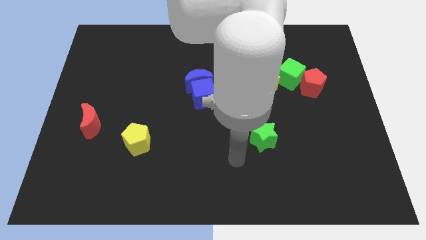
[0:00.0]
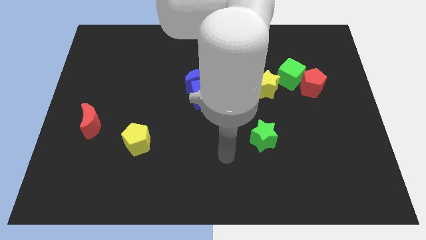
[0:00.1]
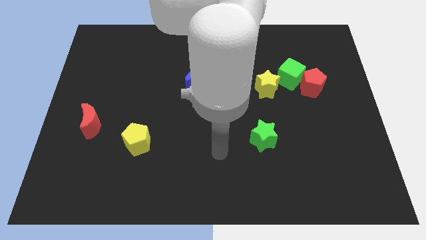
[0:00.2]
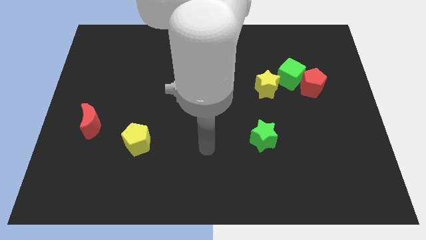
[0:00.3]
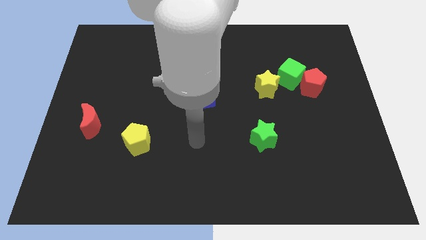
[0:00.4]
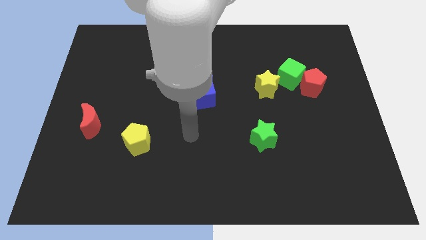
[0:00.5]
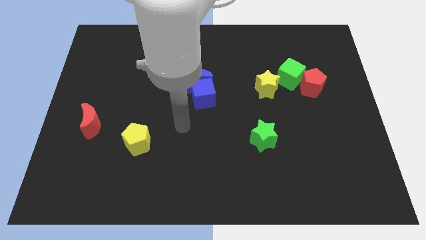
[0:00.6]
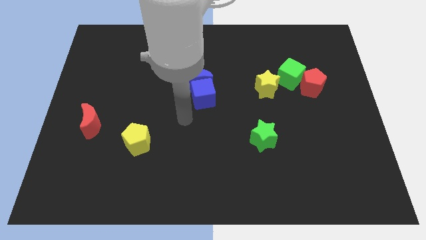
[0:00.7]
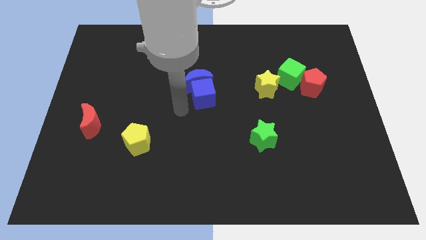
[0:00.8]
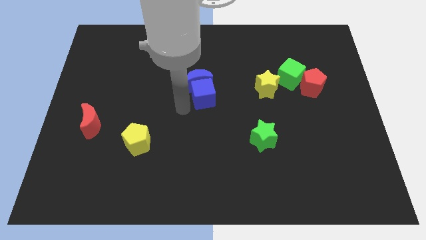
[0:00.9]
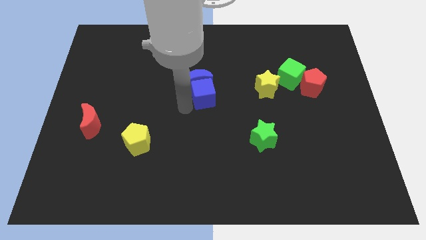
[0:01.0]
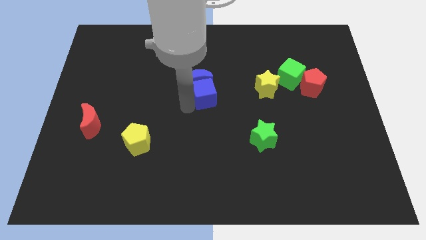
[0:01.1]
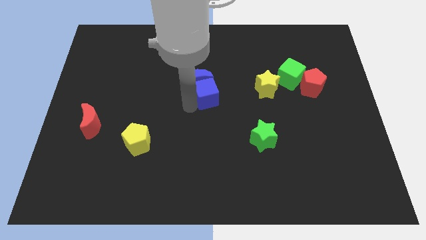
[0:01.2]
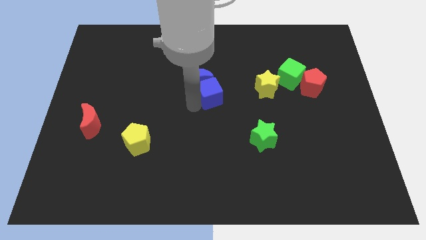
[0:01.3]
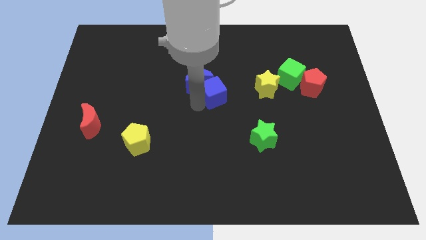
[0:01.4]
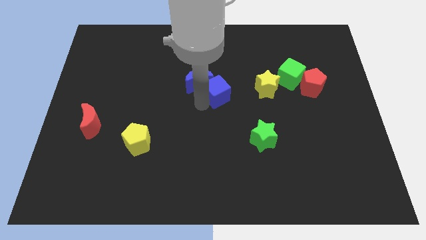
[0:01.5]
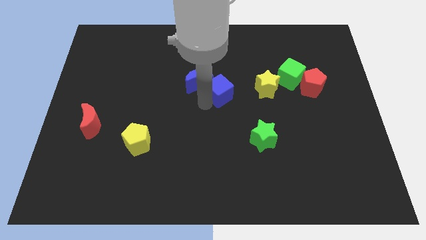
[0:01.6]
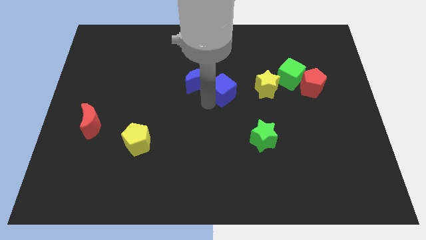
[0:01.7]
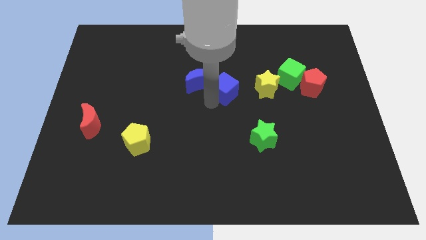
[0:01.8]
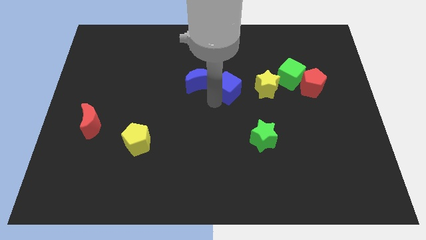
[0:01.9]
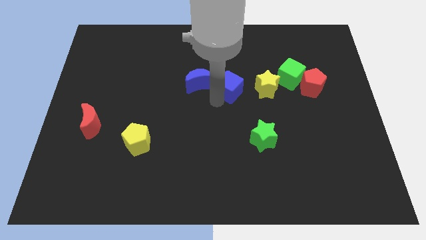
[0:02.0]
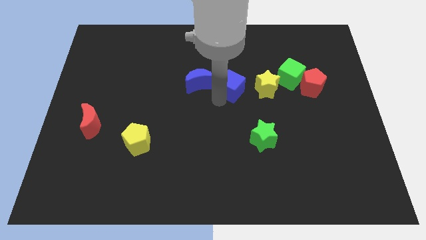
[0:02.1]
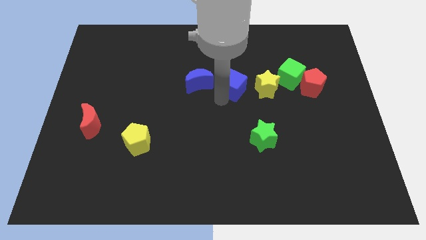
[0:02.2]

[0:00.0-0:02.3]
move the blue cube a little bit upwards and to the right diagonally

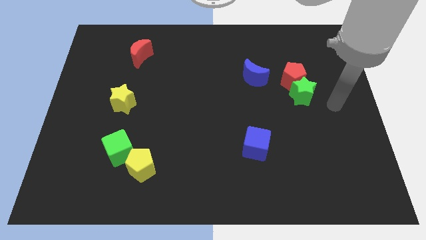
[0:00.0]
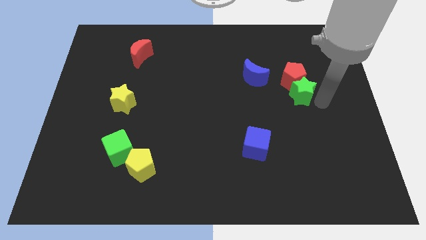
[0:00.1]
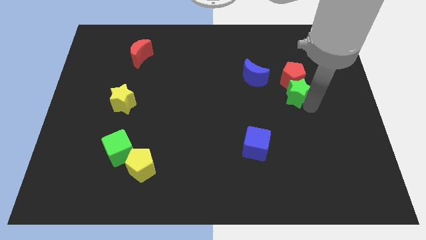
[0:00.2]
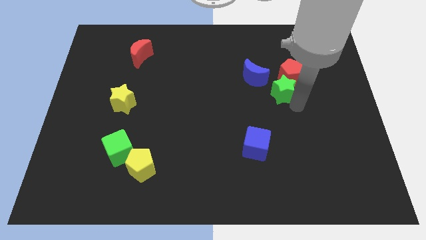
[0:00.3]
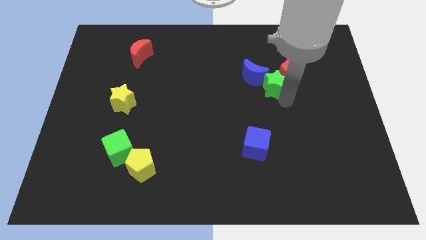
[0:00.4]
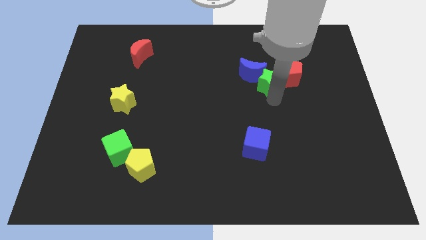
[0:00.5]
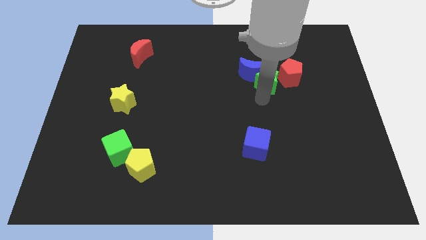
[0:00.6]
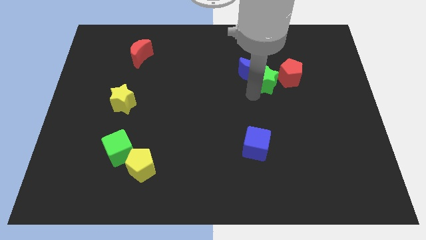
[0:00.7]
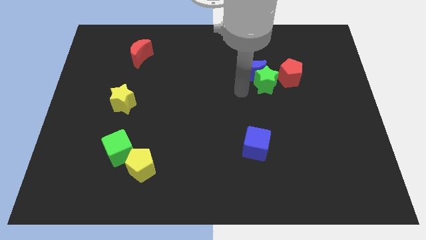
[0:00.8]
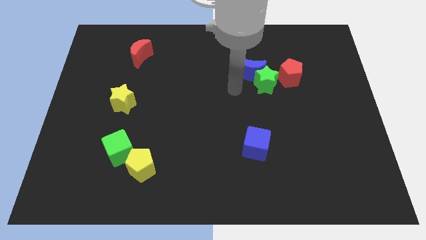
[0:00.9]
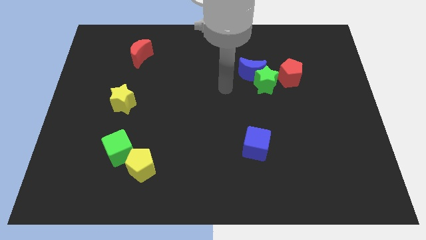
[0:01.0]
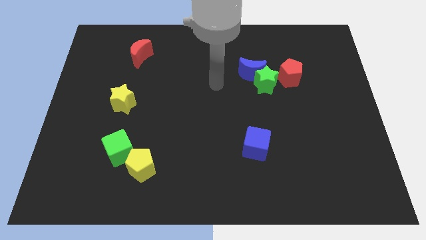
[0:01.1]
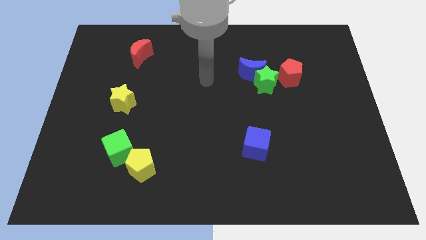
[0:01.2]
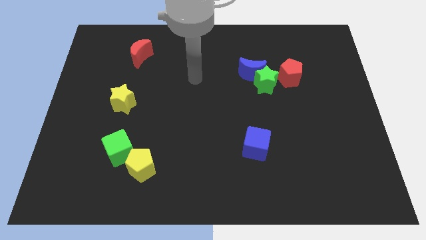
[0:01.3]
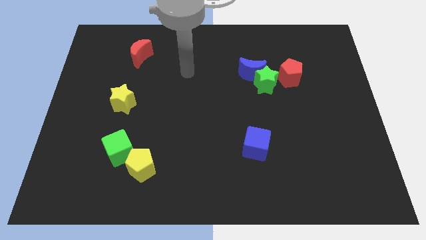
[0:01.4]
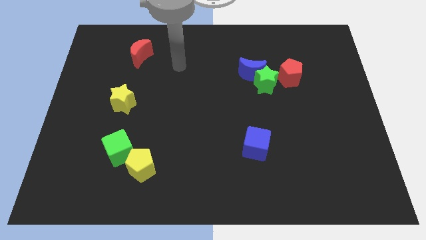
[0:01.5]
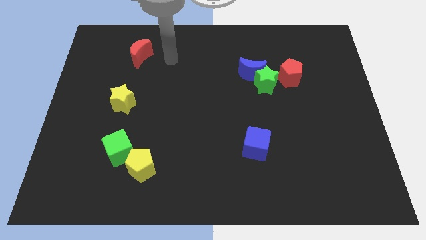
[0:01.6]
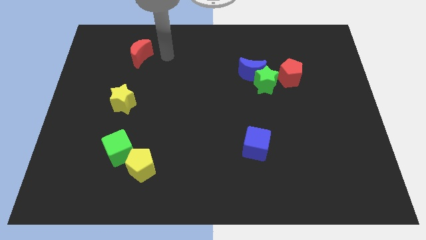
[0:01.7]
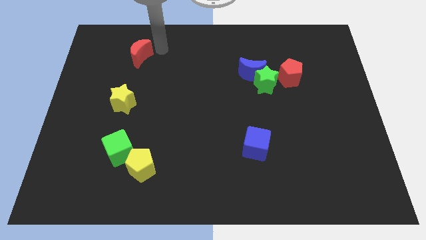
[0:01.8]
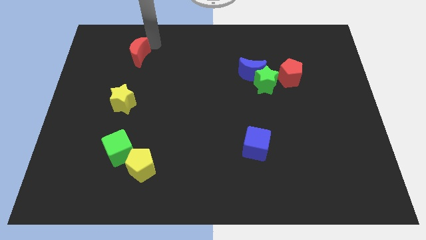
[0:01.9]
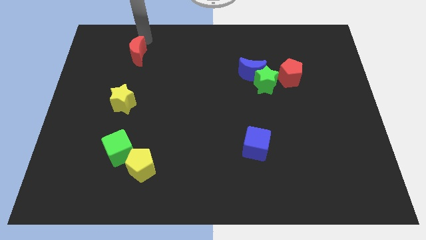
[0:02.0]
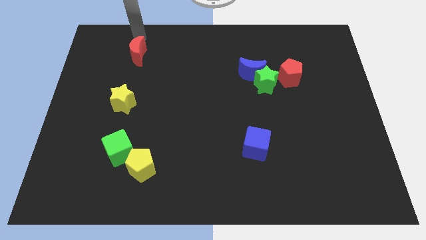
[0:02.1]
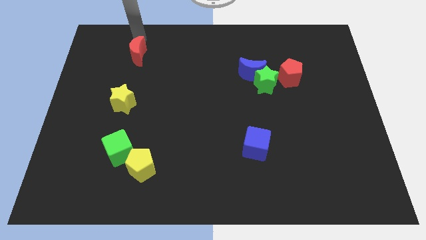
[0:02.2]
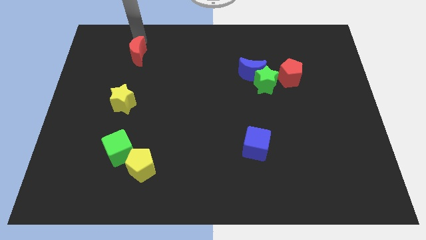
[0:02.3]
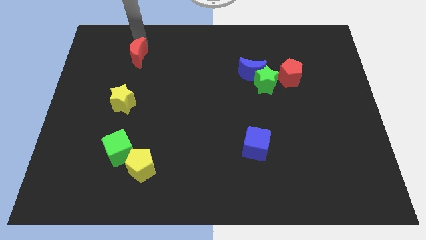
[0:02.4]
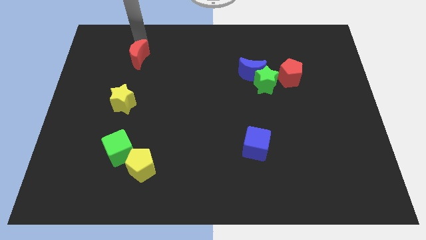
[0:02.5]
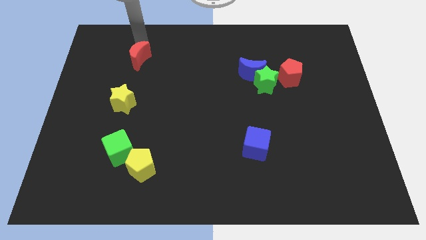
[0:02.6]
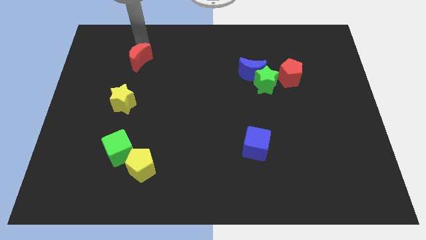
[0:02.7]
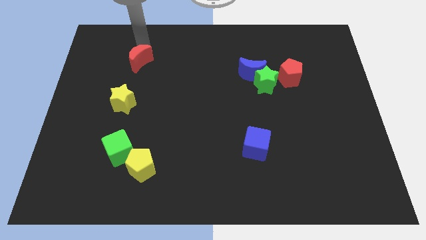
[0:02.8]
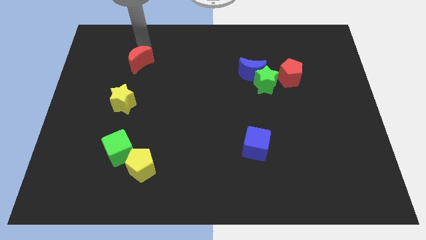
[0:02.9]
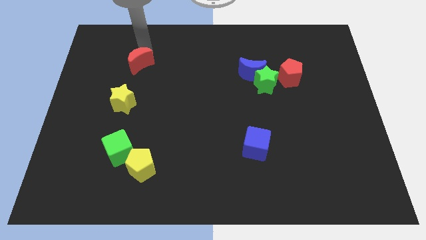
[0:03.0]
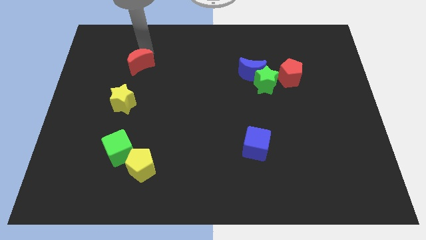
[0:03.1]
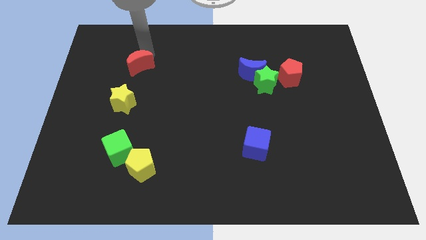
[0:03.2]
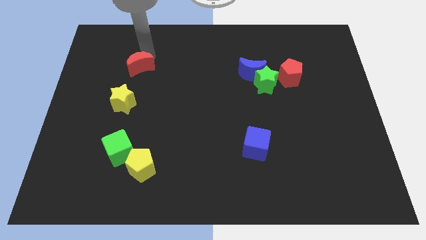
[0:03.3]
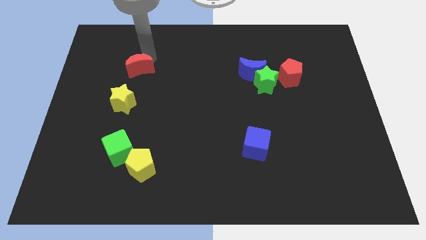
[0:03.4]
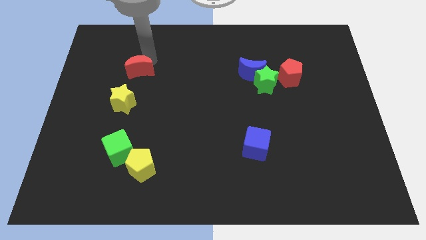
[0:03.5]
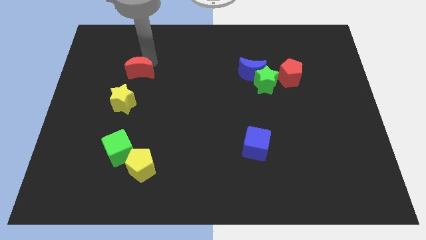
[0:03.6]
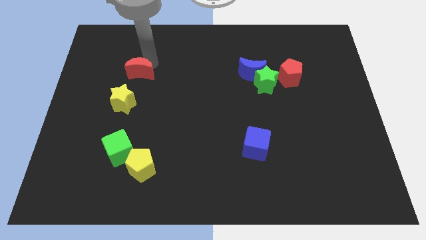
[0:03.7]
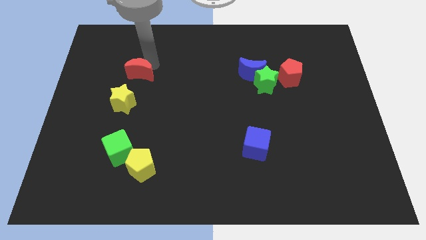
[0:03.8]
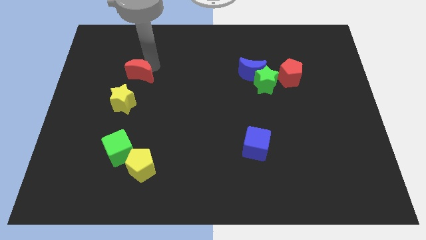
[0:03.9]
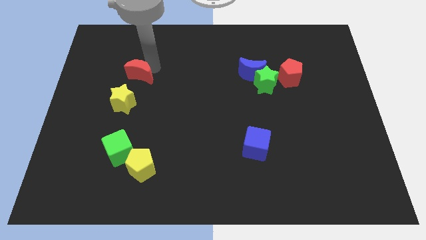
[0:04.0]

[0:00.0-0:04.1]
move the red moon downwards somewhat

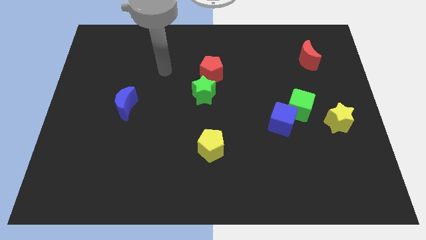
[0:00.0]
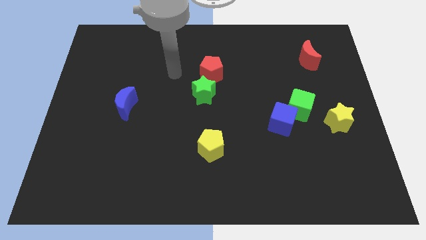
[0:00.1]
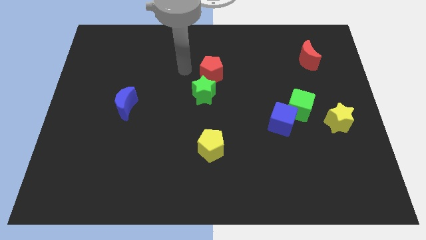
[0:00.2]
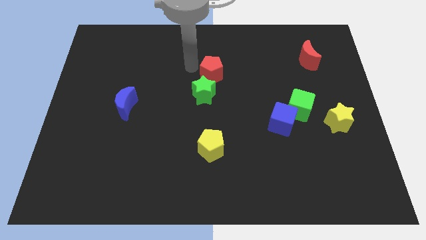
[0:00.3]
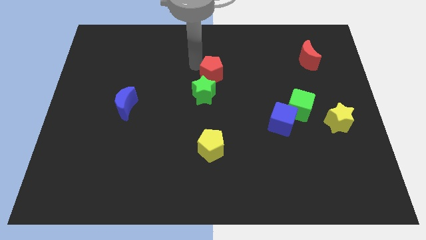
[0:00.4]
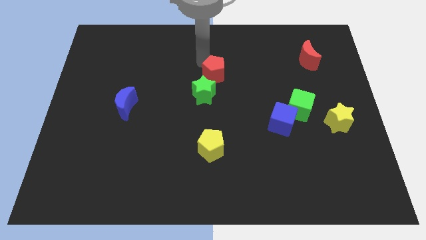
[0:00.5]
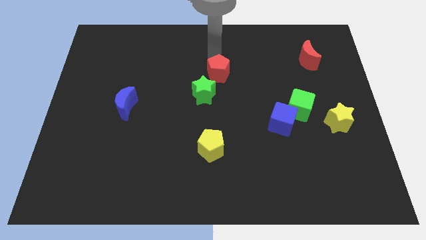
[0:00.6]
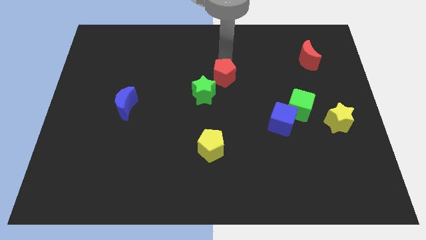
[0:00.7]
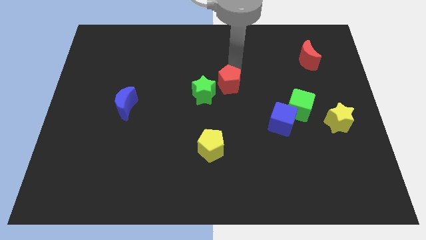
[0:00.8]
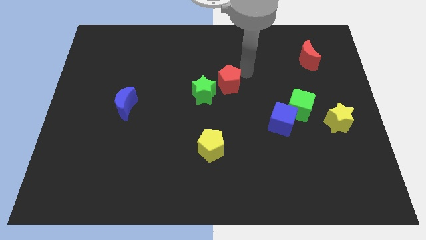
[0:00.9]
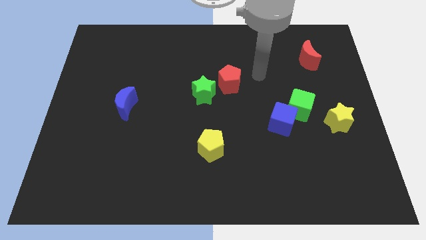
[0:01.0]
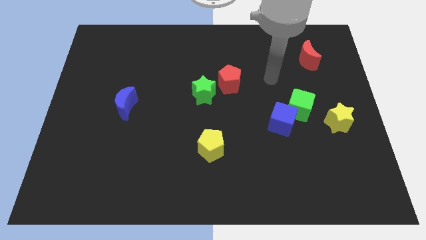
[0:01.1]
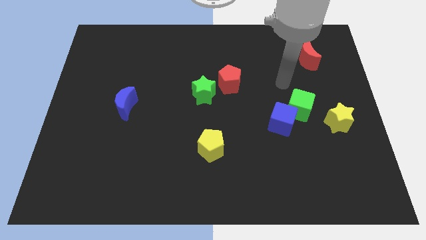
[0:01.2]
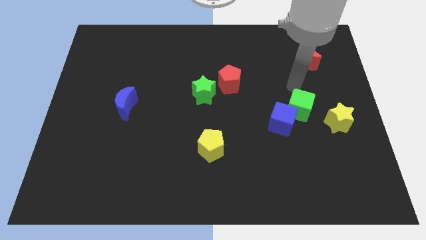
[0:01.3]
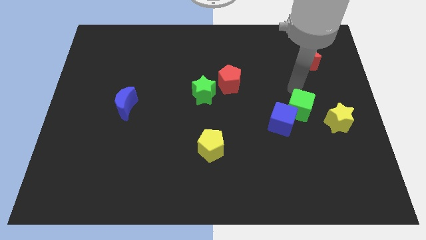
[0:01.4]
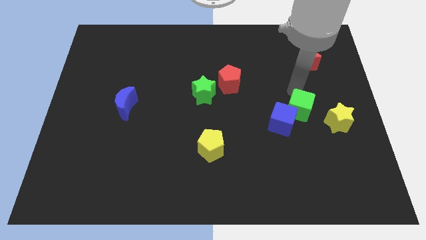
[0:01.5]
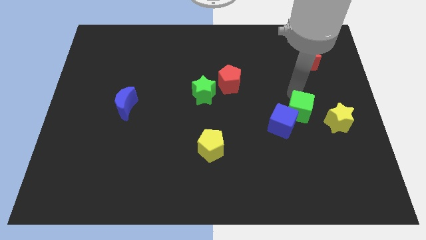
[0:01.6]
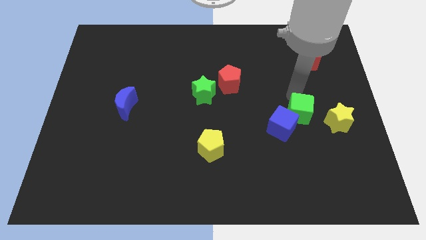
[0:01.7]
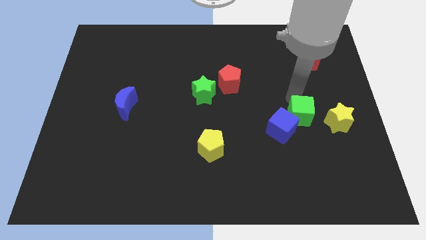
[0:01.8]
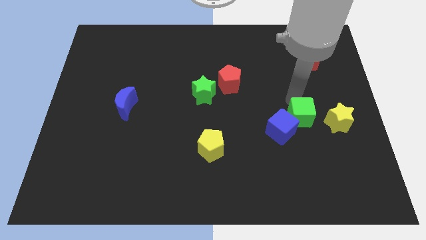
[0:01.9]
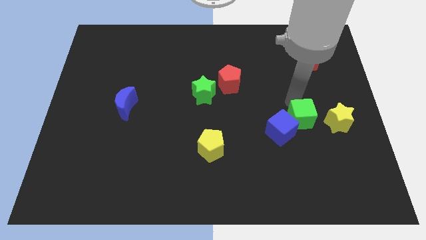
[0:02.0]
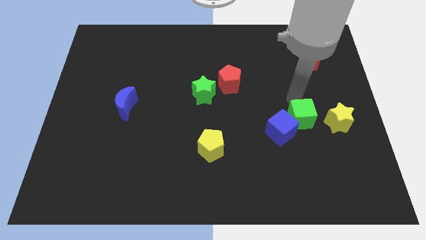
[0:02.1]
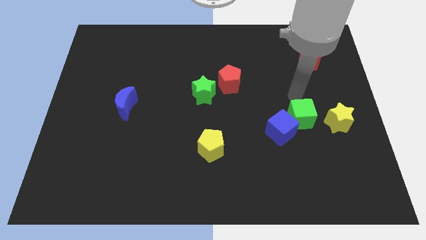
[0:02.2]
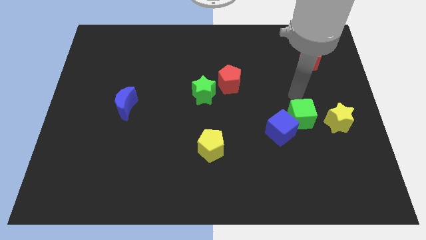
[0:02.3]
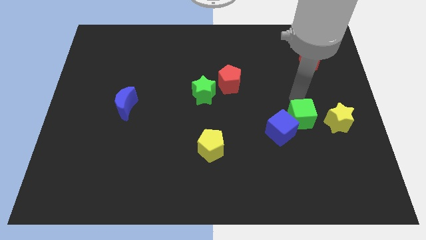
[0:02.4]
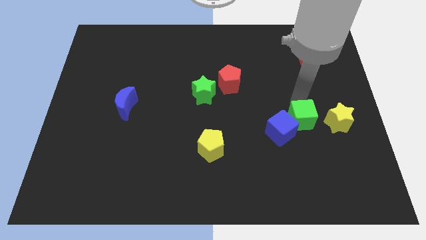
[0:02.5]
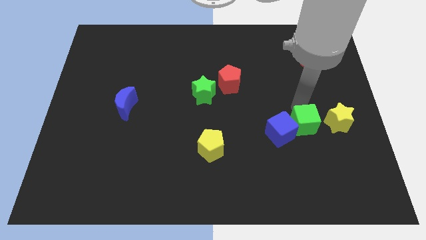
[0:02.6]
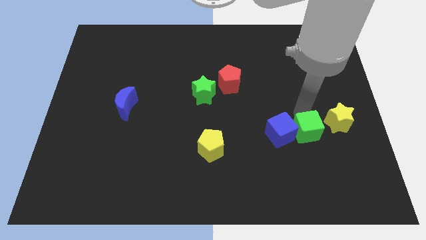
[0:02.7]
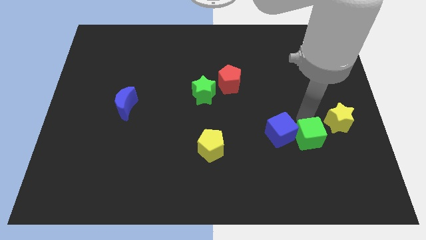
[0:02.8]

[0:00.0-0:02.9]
slightly move the green cube downwards
